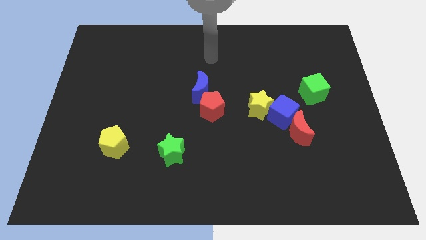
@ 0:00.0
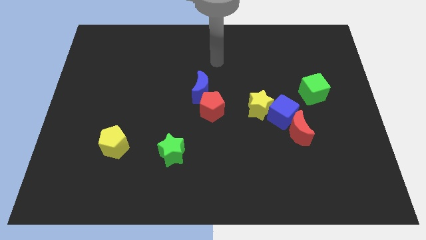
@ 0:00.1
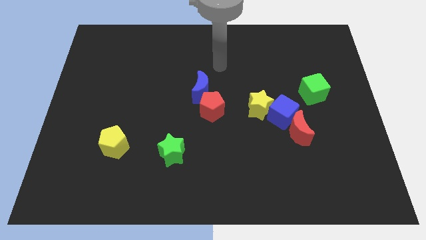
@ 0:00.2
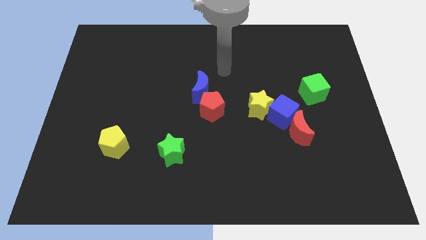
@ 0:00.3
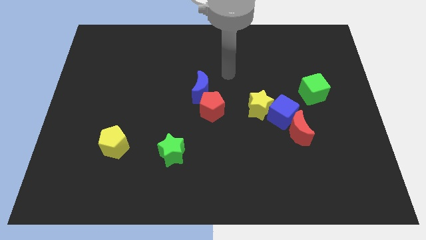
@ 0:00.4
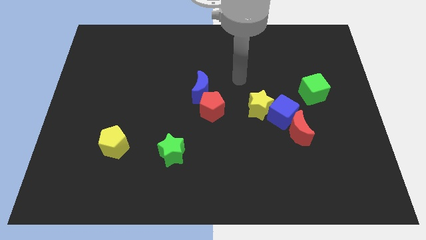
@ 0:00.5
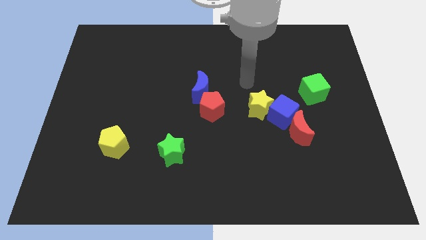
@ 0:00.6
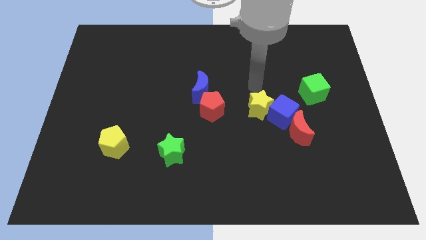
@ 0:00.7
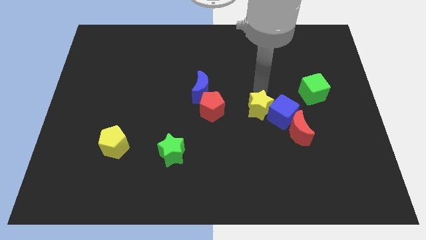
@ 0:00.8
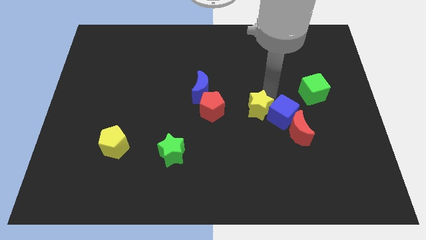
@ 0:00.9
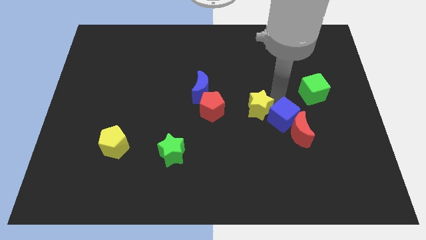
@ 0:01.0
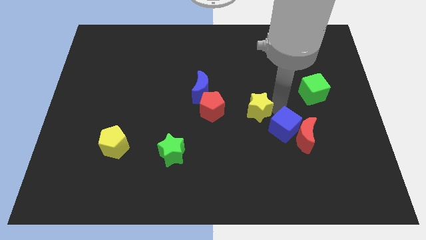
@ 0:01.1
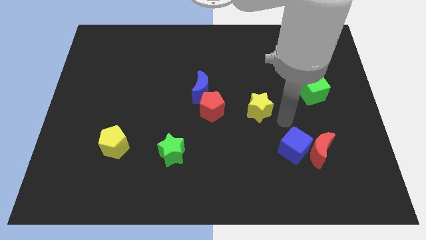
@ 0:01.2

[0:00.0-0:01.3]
move the yellow star away from the blue cube

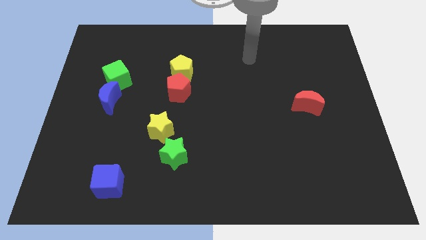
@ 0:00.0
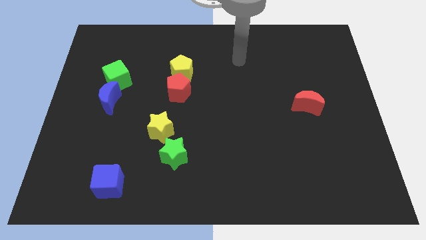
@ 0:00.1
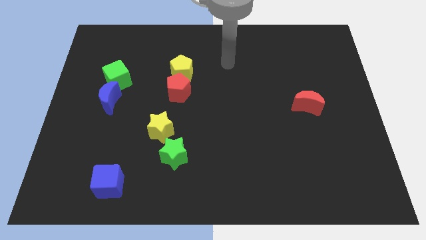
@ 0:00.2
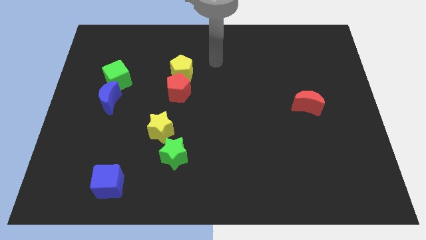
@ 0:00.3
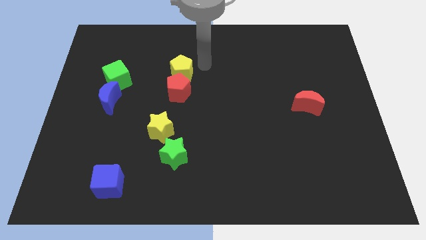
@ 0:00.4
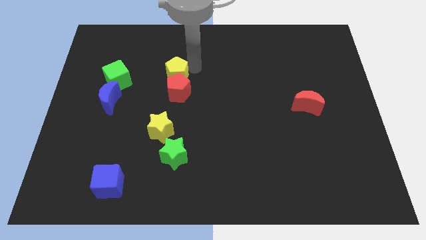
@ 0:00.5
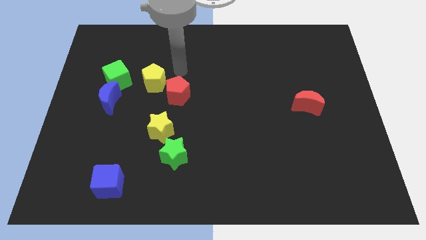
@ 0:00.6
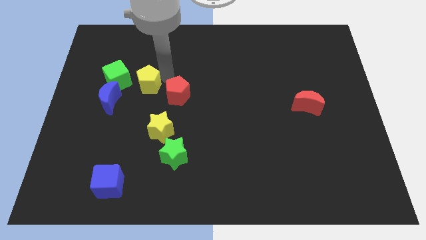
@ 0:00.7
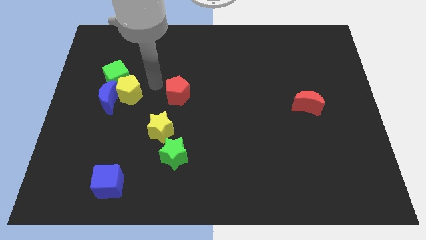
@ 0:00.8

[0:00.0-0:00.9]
move the red pentagon away from the yellow pentagon

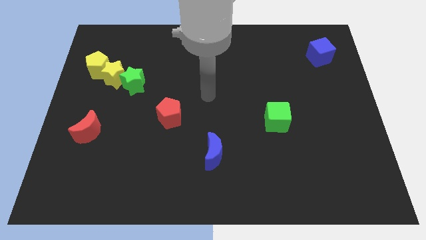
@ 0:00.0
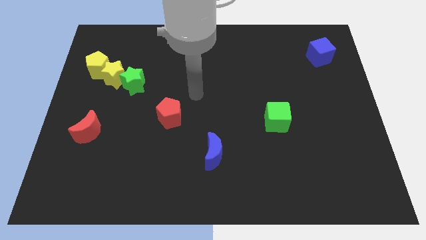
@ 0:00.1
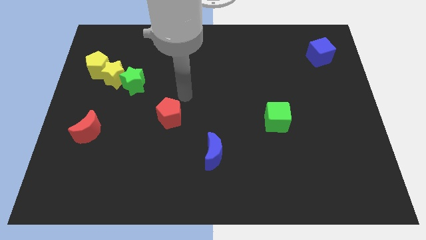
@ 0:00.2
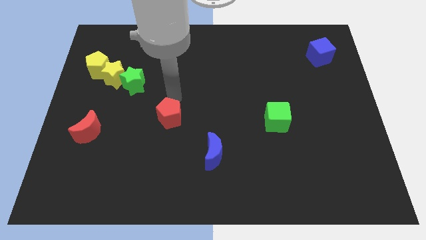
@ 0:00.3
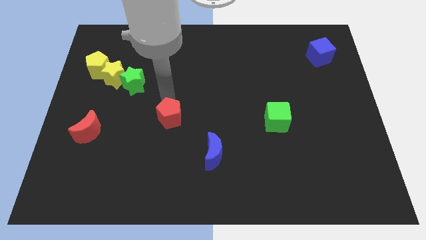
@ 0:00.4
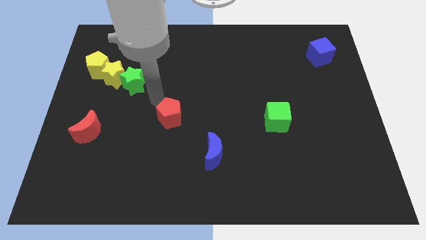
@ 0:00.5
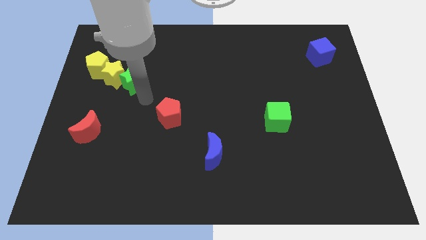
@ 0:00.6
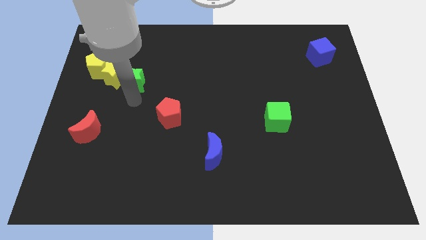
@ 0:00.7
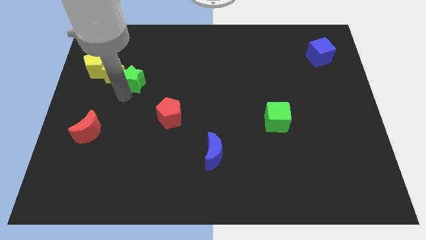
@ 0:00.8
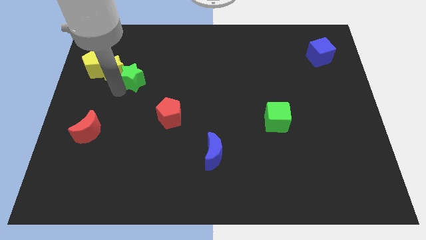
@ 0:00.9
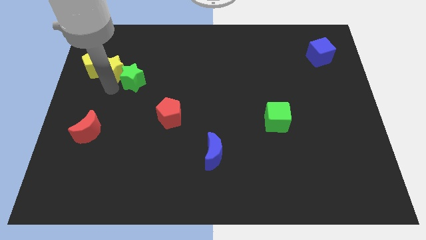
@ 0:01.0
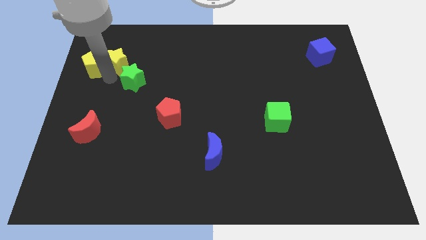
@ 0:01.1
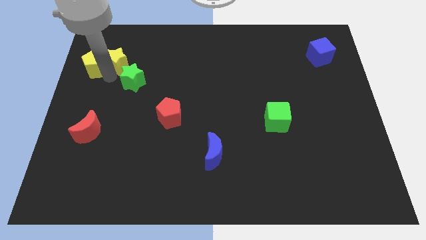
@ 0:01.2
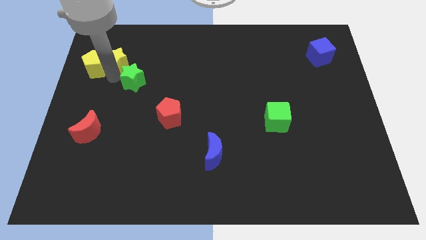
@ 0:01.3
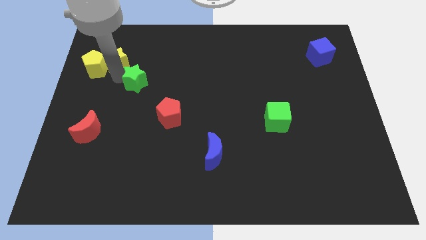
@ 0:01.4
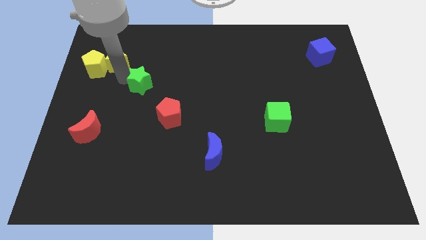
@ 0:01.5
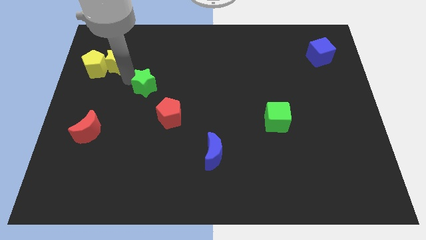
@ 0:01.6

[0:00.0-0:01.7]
pull the green star apart from the yellow star

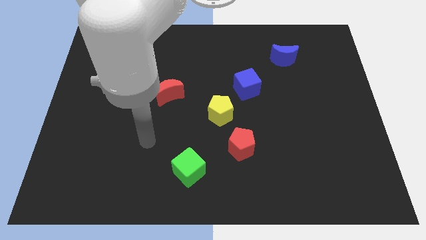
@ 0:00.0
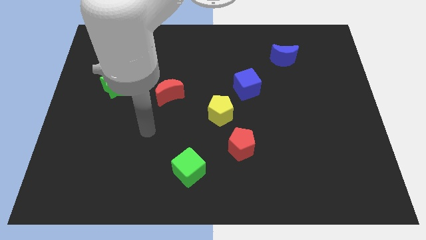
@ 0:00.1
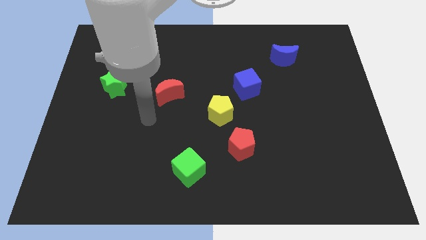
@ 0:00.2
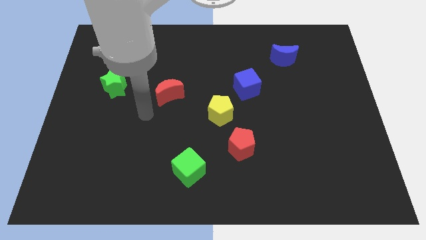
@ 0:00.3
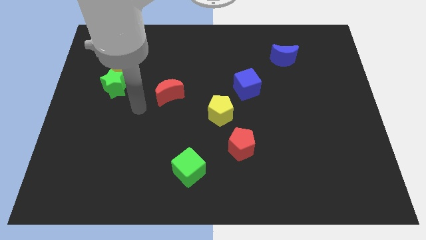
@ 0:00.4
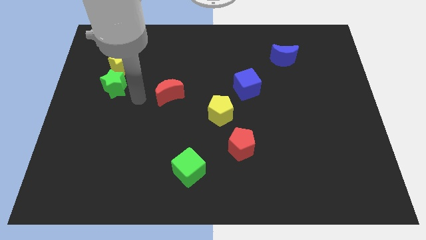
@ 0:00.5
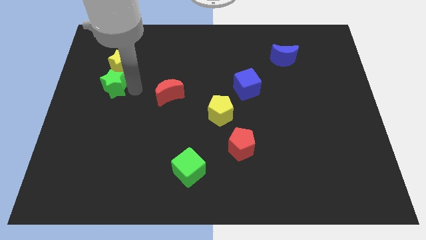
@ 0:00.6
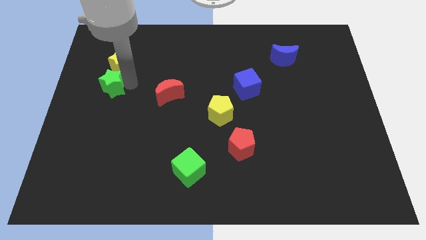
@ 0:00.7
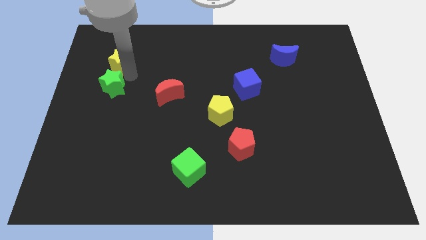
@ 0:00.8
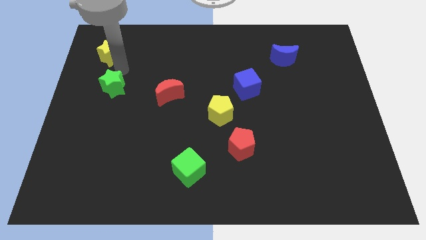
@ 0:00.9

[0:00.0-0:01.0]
separate the green star from the yellow star

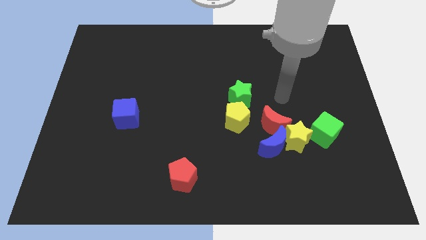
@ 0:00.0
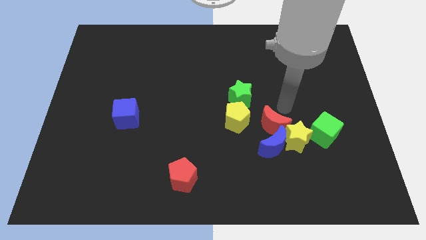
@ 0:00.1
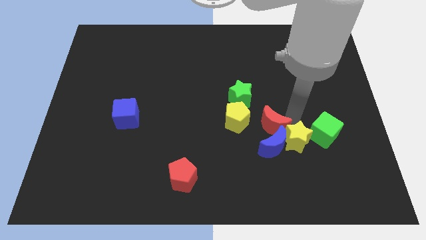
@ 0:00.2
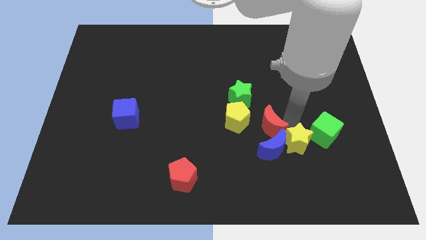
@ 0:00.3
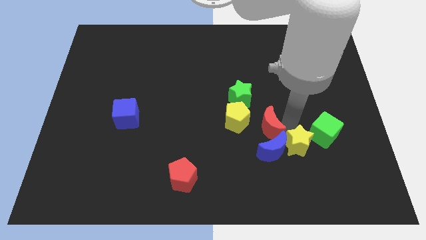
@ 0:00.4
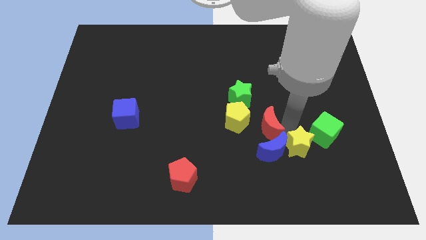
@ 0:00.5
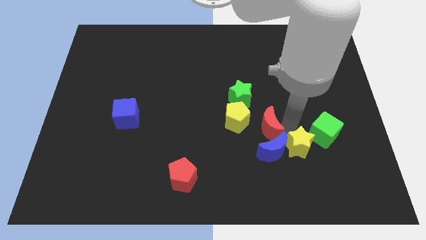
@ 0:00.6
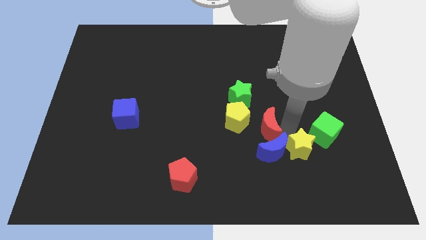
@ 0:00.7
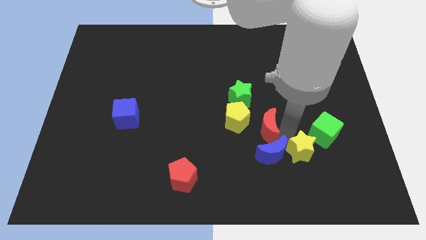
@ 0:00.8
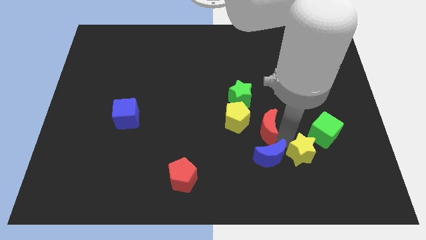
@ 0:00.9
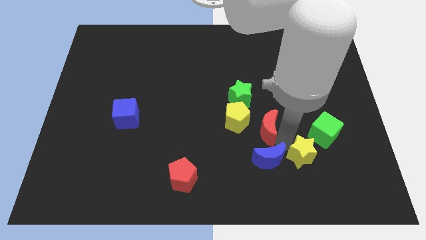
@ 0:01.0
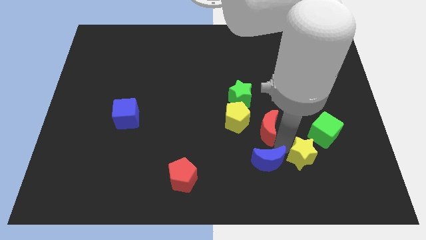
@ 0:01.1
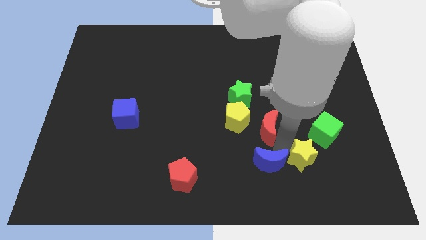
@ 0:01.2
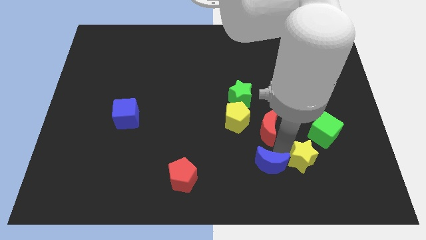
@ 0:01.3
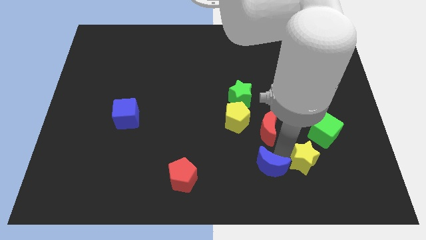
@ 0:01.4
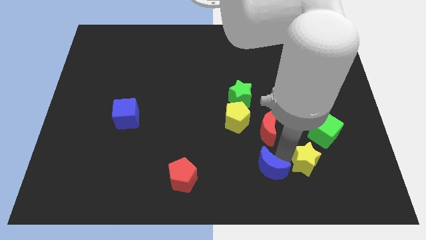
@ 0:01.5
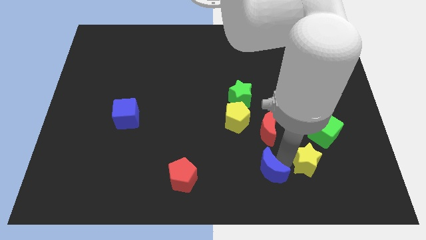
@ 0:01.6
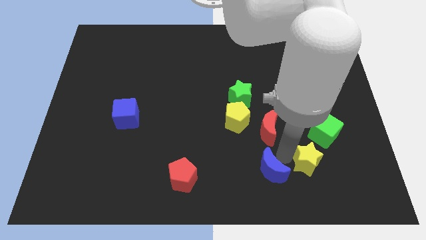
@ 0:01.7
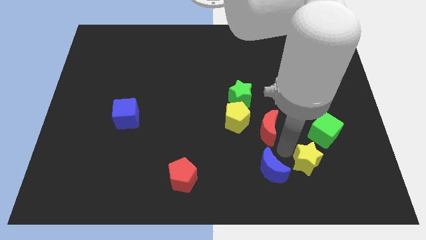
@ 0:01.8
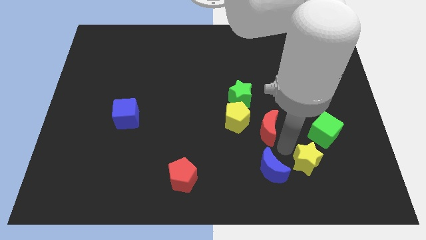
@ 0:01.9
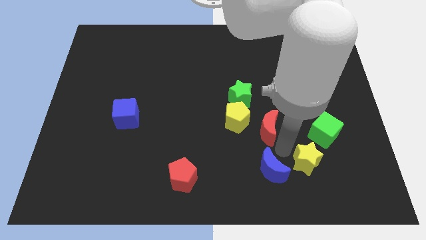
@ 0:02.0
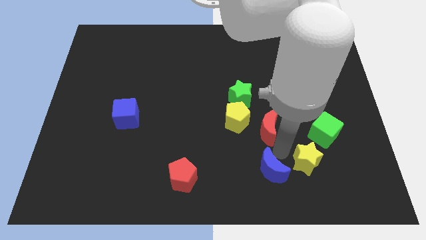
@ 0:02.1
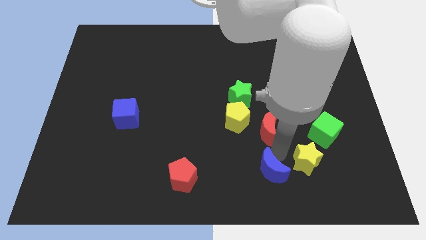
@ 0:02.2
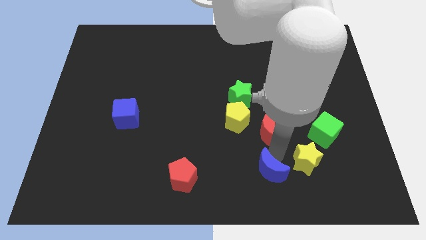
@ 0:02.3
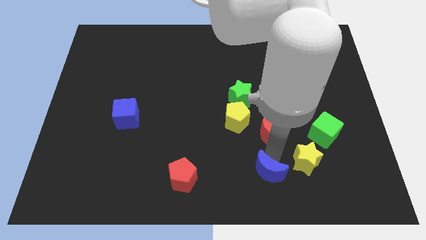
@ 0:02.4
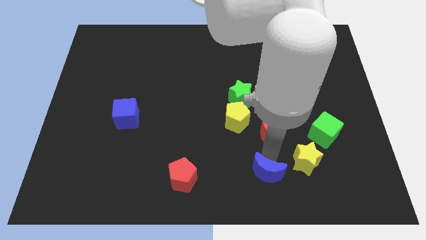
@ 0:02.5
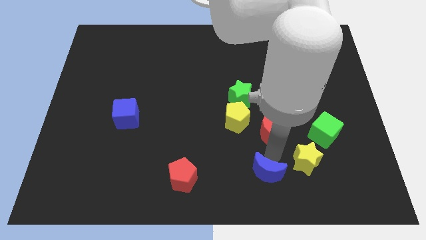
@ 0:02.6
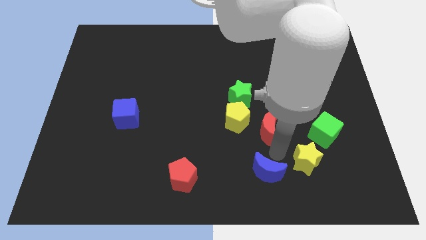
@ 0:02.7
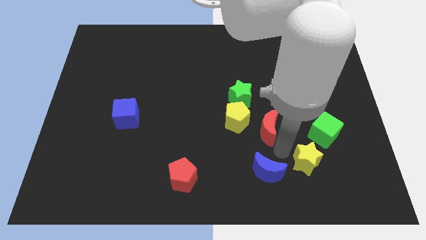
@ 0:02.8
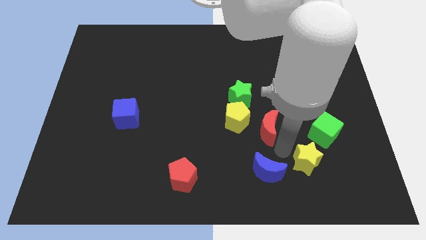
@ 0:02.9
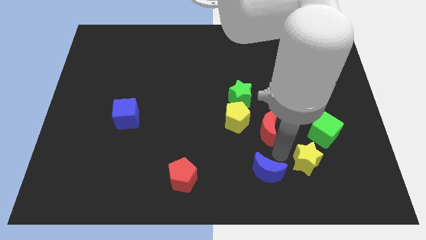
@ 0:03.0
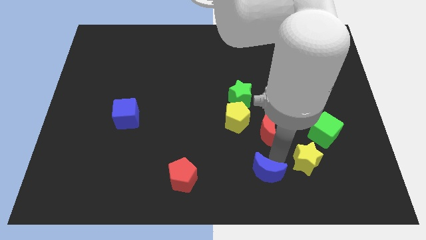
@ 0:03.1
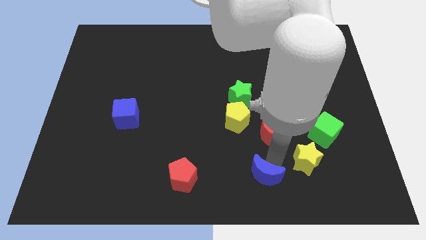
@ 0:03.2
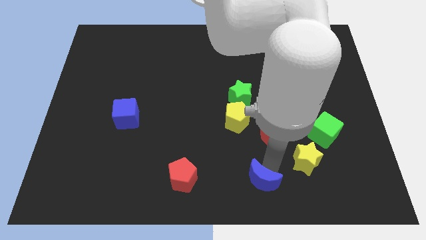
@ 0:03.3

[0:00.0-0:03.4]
separate the blue moon from the yellow star and red moon

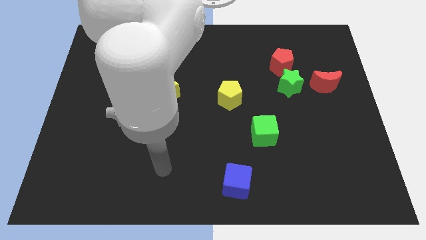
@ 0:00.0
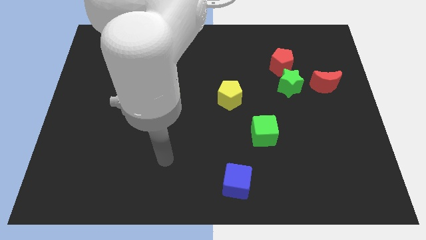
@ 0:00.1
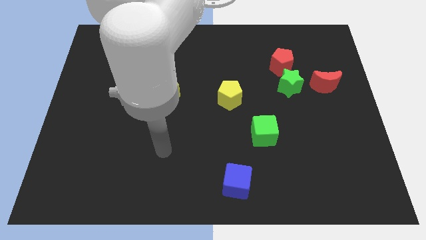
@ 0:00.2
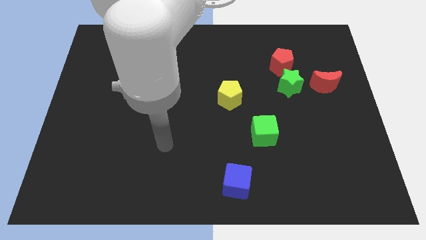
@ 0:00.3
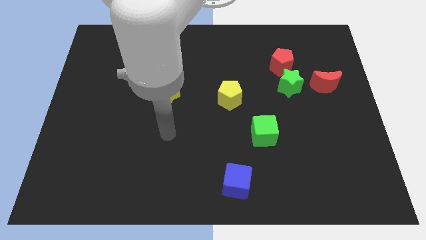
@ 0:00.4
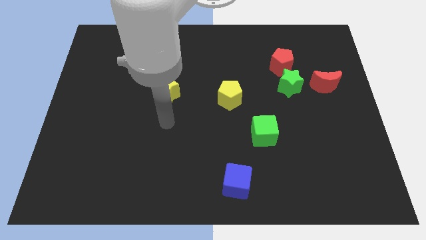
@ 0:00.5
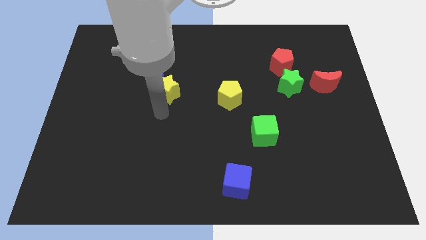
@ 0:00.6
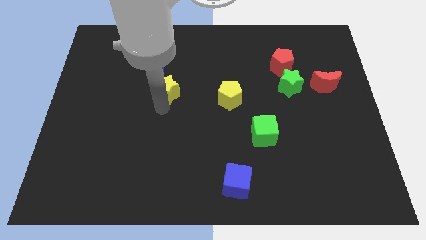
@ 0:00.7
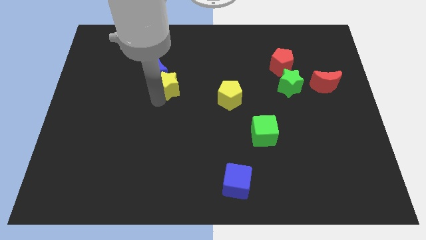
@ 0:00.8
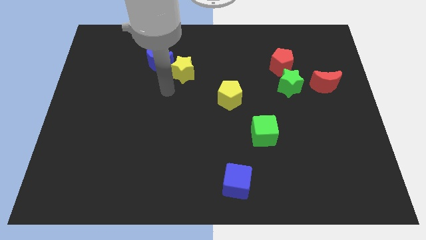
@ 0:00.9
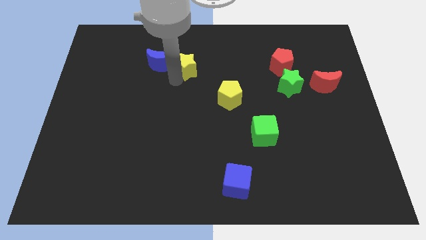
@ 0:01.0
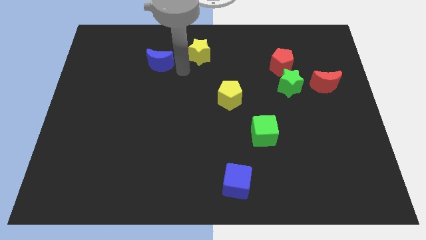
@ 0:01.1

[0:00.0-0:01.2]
separate the blue moon from the yellow star
